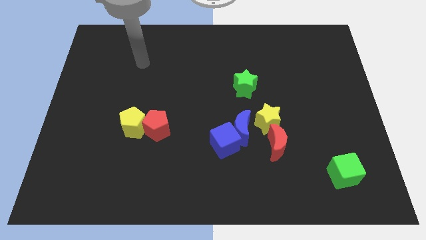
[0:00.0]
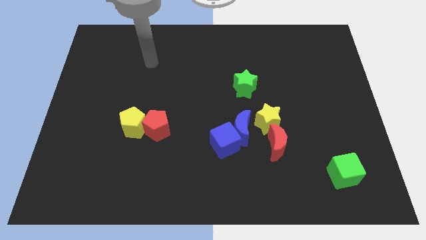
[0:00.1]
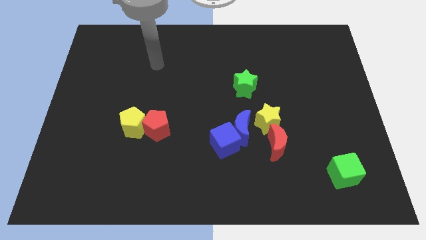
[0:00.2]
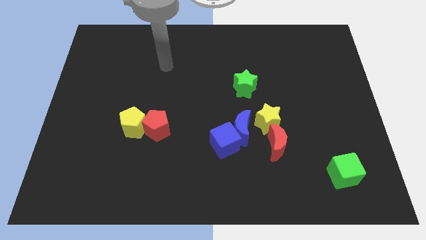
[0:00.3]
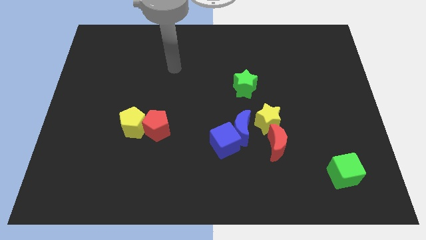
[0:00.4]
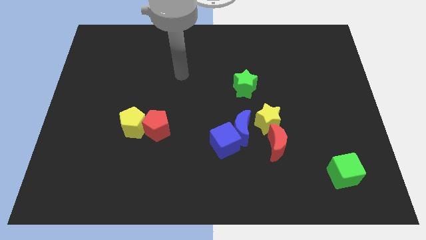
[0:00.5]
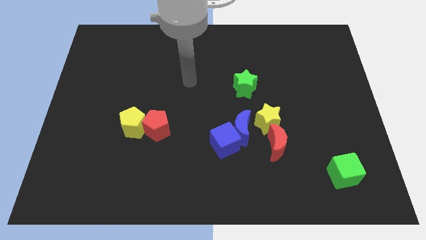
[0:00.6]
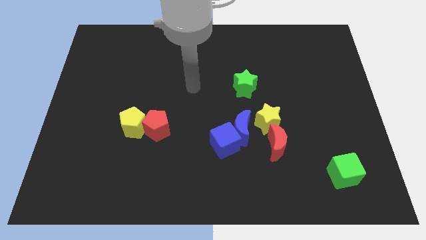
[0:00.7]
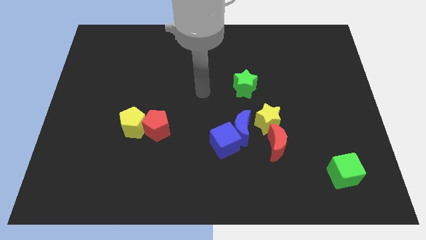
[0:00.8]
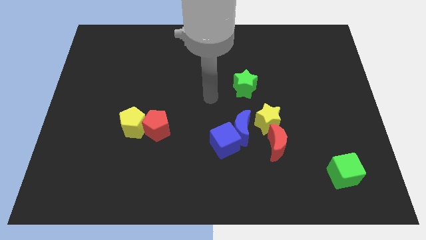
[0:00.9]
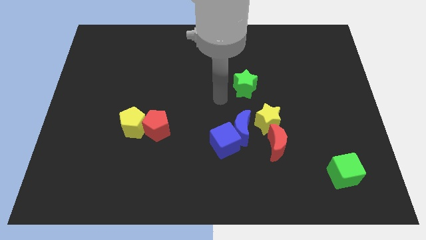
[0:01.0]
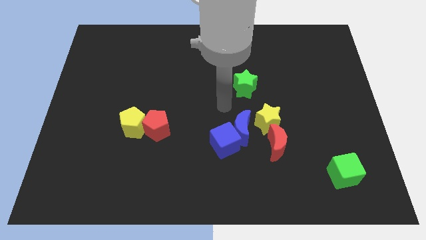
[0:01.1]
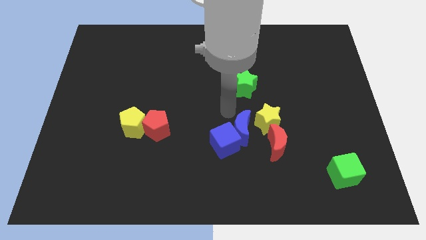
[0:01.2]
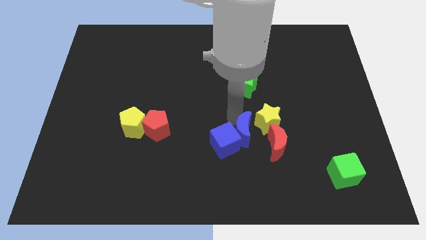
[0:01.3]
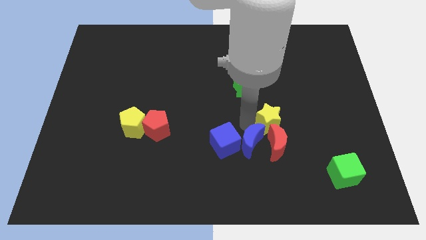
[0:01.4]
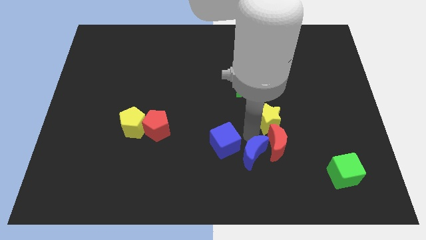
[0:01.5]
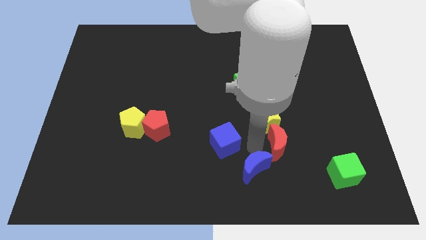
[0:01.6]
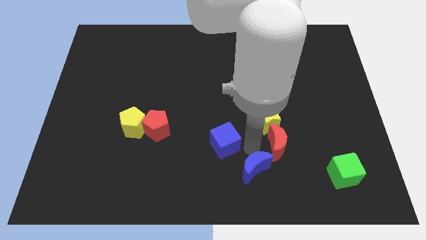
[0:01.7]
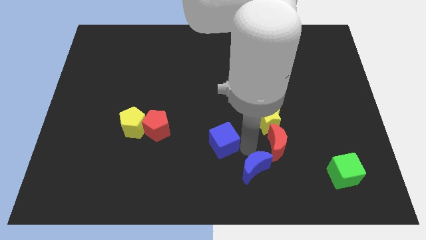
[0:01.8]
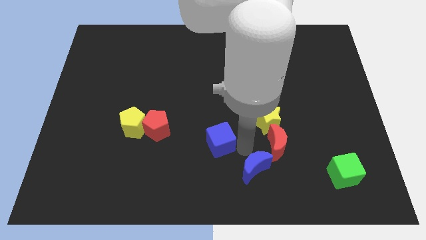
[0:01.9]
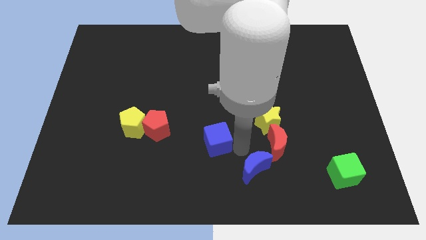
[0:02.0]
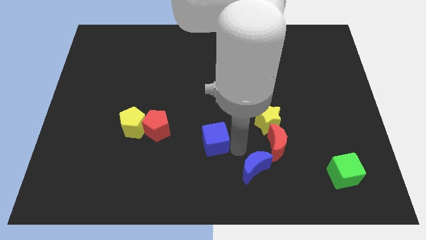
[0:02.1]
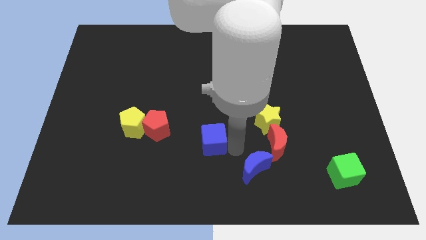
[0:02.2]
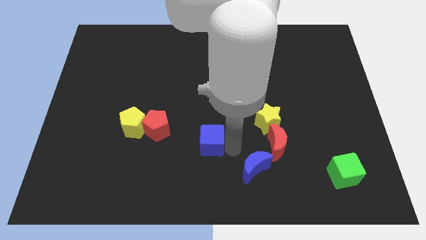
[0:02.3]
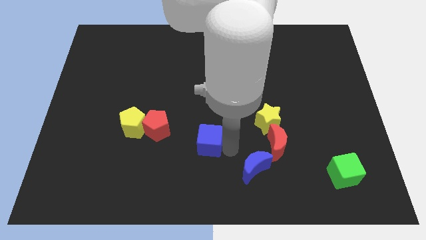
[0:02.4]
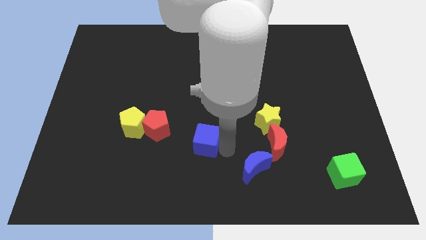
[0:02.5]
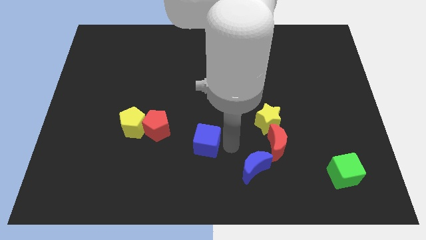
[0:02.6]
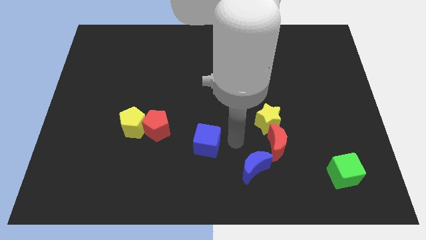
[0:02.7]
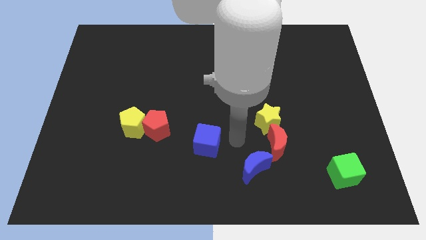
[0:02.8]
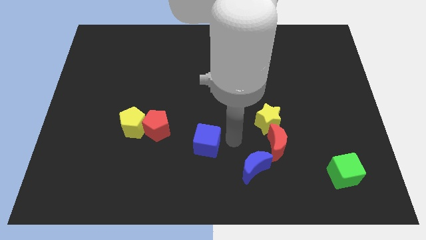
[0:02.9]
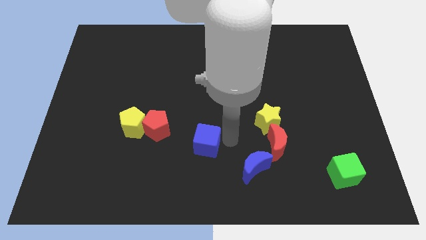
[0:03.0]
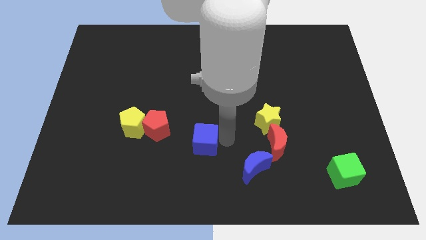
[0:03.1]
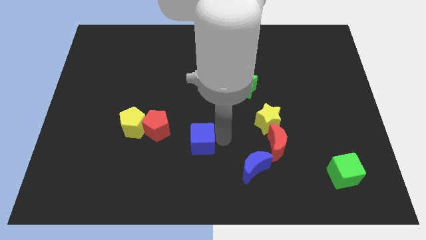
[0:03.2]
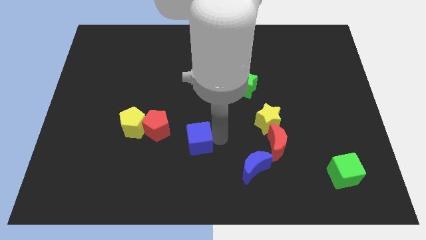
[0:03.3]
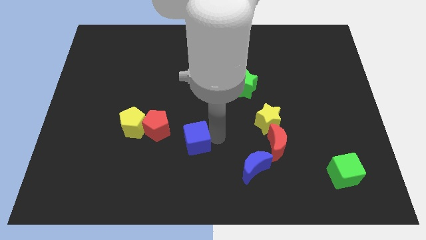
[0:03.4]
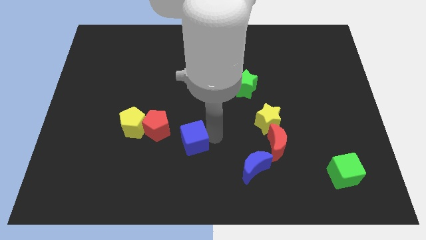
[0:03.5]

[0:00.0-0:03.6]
push the blue cube left somewhat

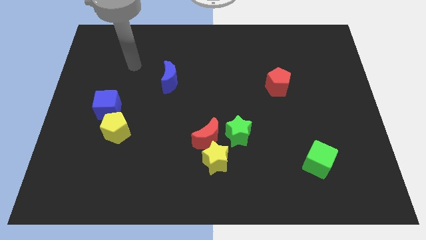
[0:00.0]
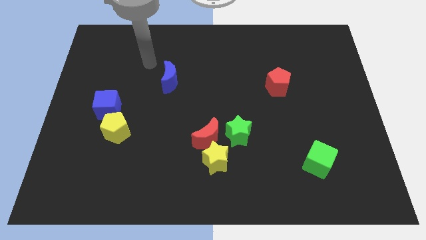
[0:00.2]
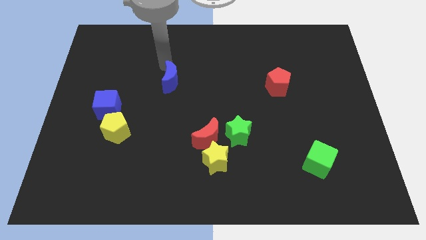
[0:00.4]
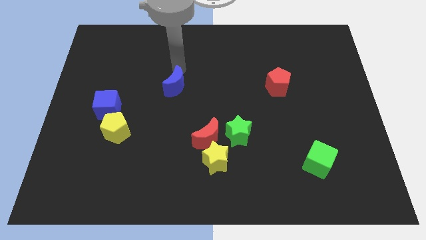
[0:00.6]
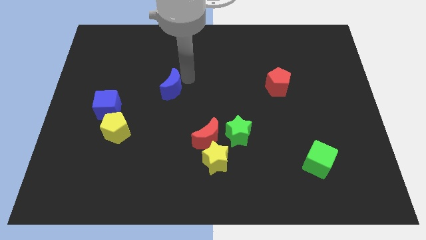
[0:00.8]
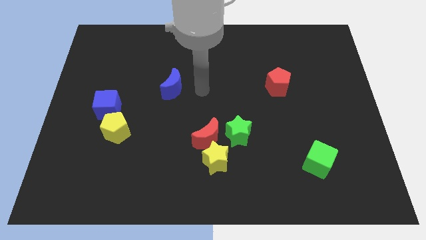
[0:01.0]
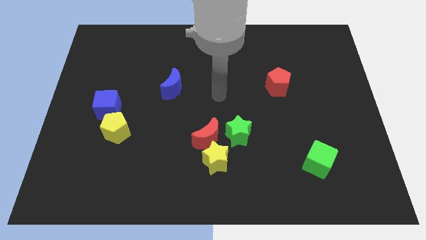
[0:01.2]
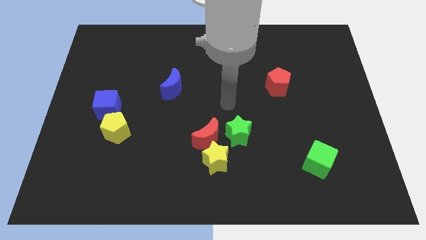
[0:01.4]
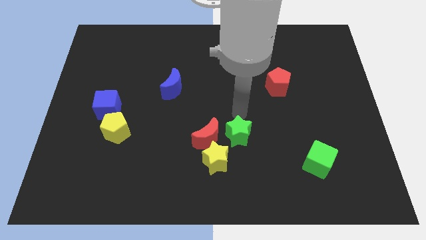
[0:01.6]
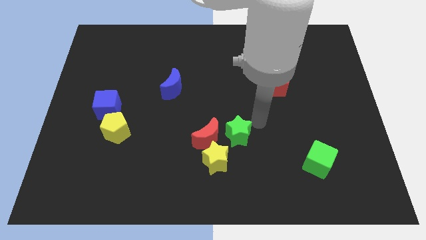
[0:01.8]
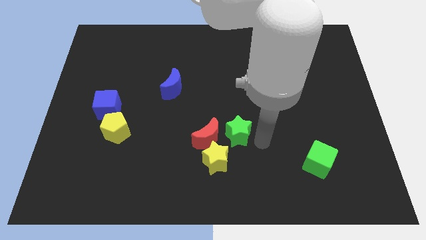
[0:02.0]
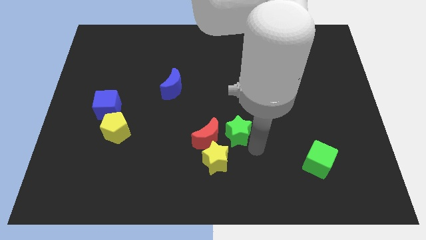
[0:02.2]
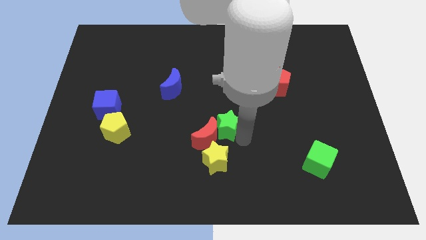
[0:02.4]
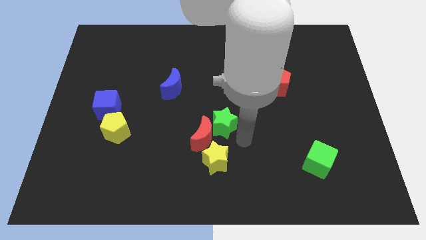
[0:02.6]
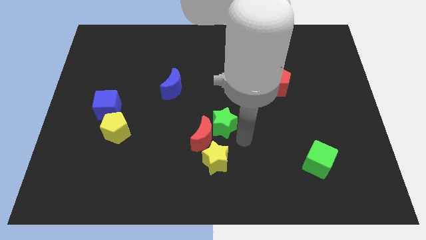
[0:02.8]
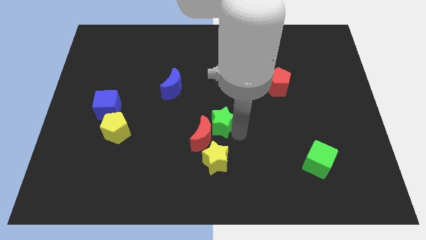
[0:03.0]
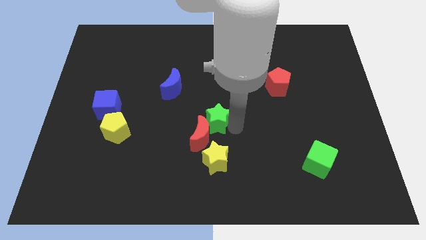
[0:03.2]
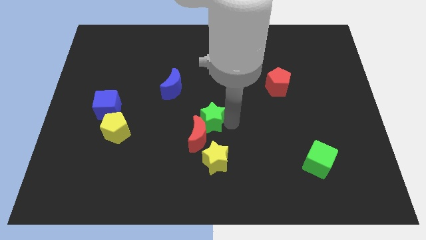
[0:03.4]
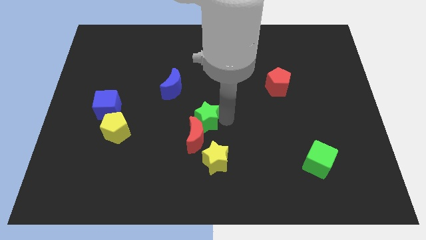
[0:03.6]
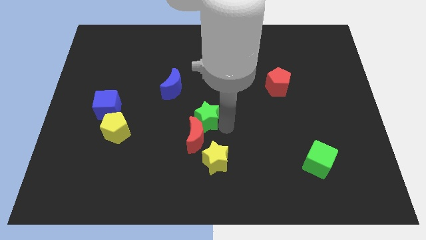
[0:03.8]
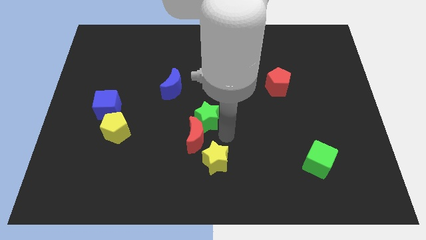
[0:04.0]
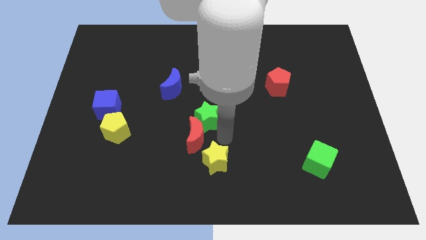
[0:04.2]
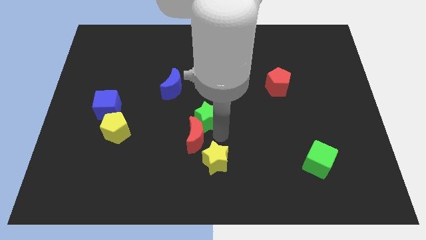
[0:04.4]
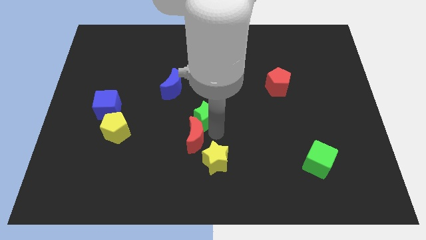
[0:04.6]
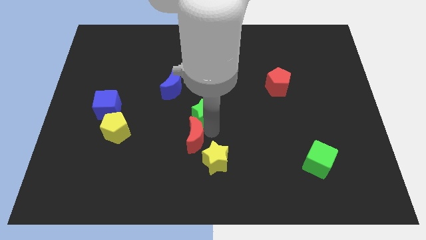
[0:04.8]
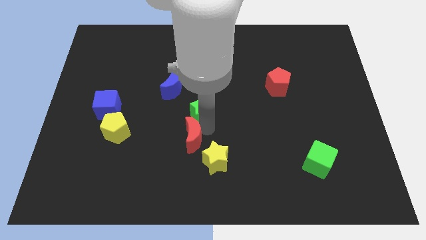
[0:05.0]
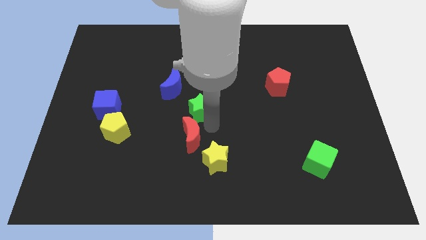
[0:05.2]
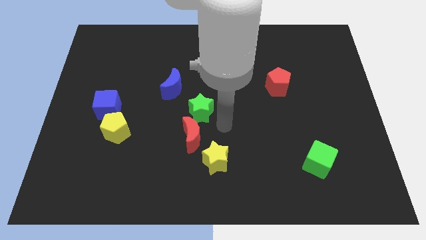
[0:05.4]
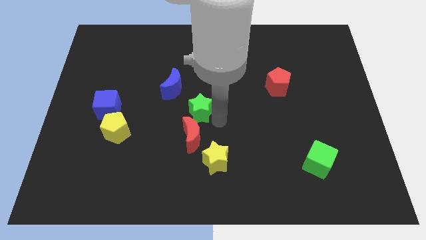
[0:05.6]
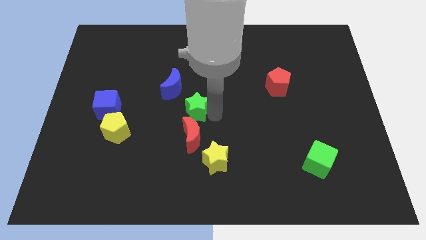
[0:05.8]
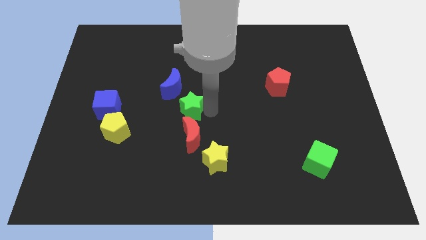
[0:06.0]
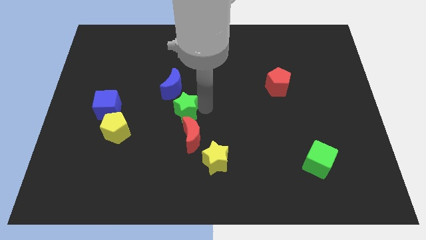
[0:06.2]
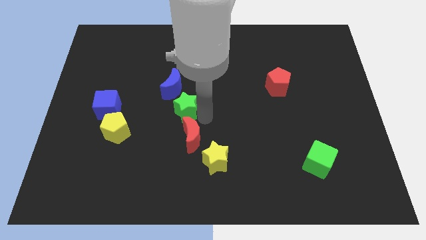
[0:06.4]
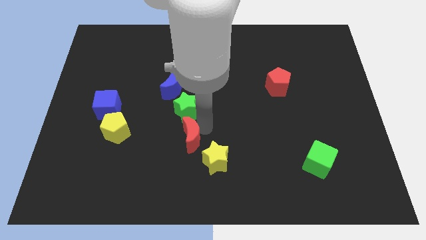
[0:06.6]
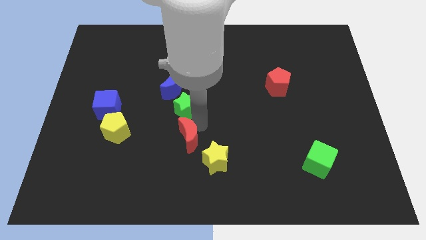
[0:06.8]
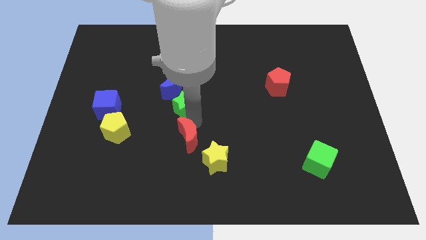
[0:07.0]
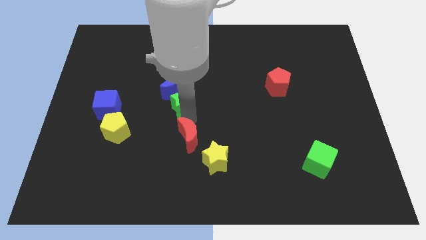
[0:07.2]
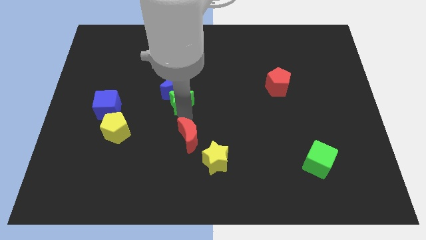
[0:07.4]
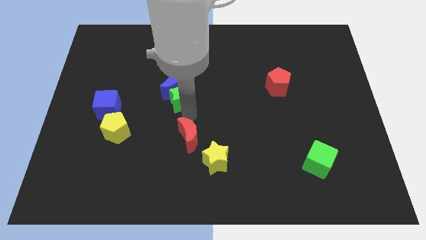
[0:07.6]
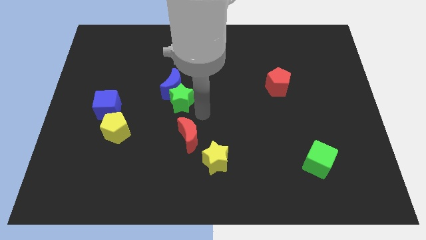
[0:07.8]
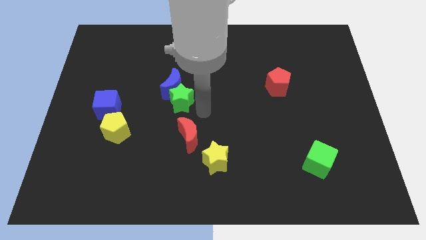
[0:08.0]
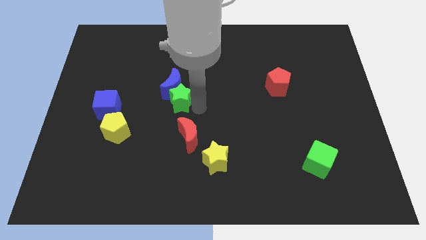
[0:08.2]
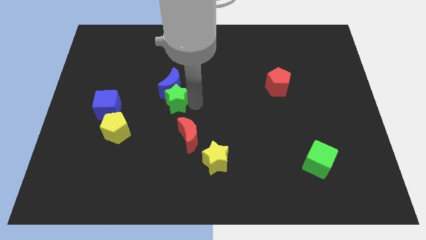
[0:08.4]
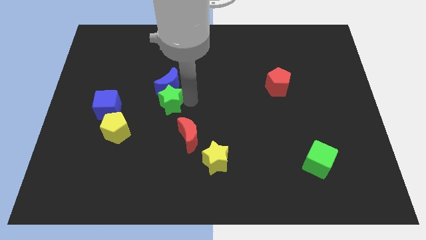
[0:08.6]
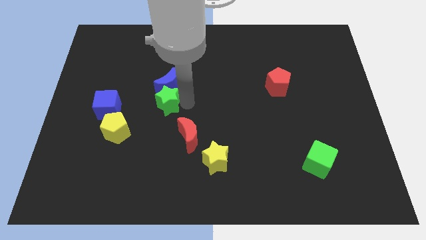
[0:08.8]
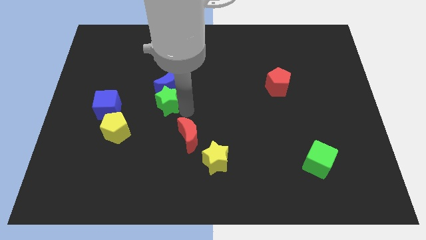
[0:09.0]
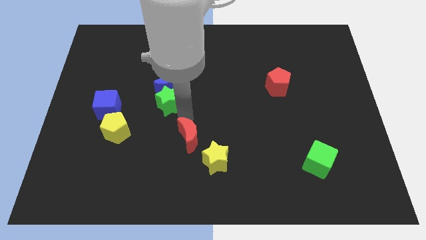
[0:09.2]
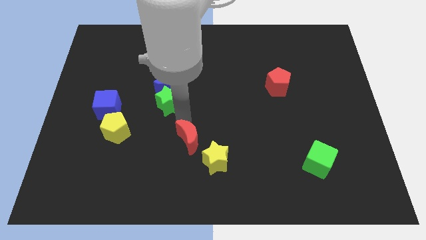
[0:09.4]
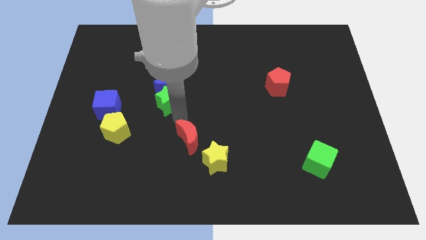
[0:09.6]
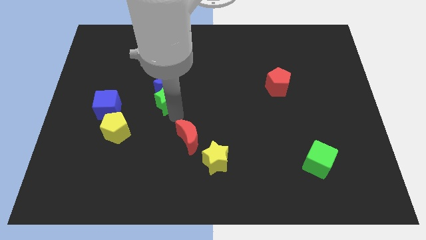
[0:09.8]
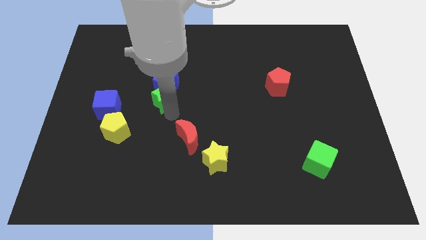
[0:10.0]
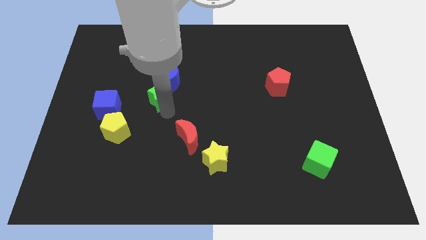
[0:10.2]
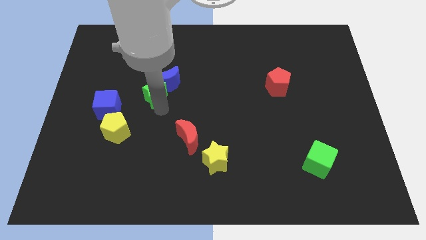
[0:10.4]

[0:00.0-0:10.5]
push the green star up and to the left diagonally
